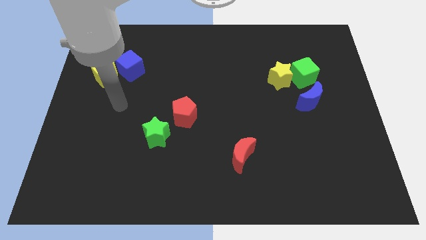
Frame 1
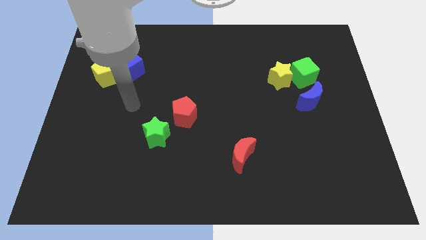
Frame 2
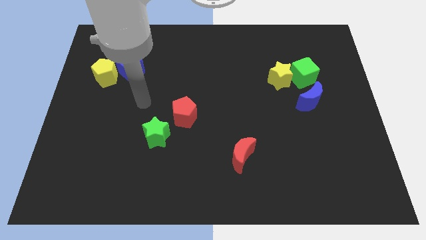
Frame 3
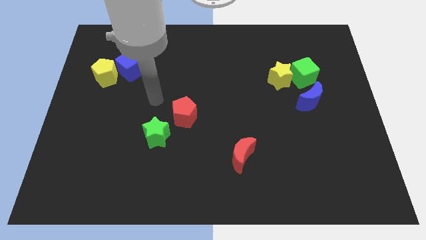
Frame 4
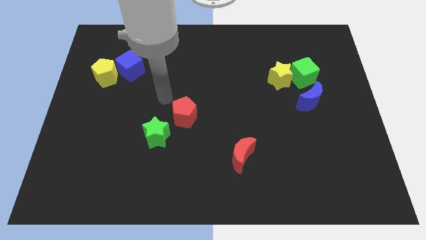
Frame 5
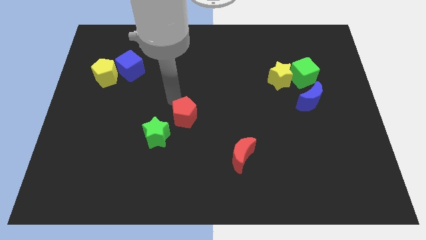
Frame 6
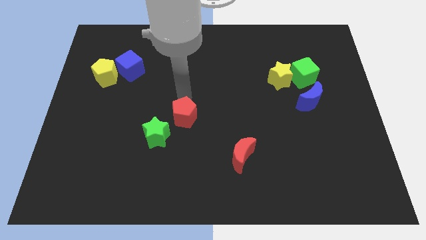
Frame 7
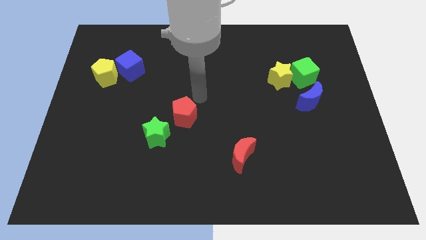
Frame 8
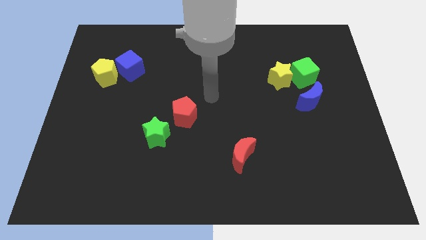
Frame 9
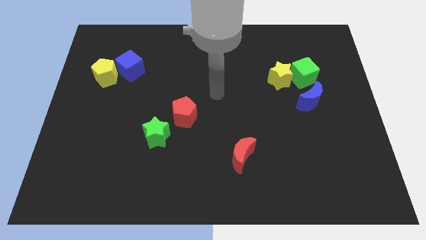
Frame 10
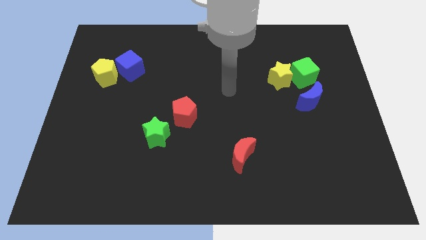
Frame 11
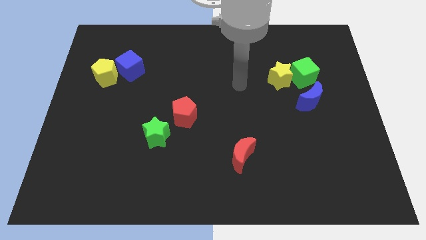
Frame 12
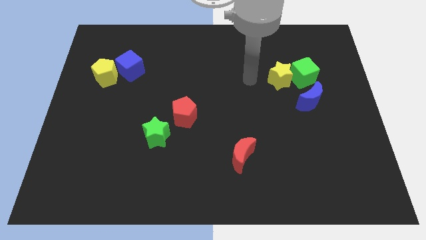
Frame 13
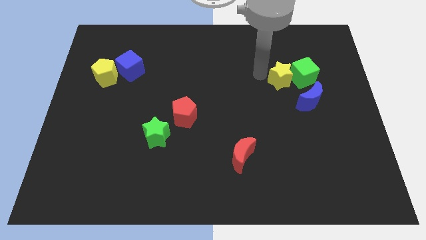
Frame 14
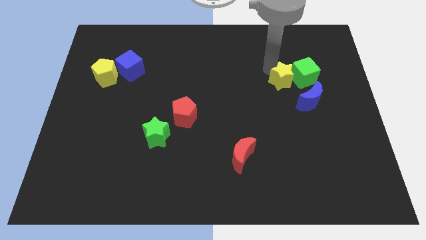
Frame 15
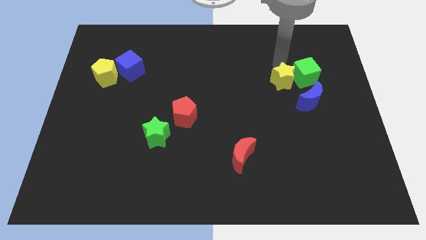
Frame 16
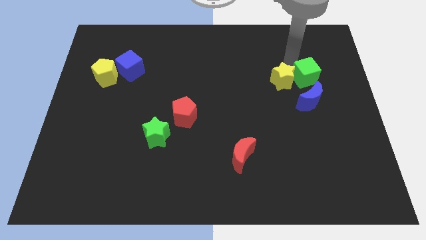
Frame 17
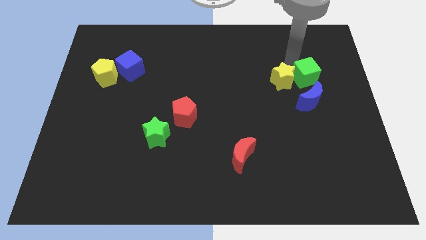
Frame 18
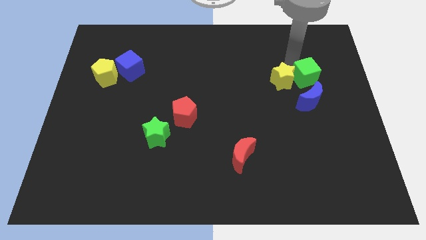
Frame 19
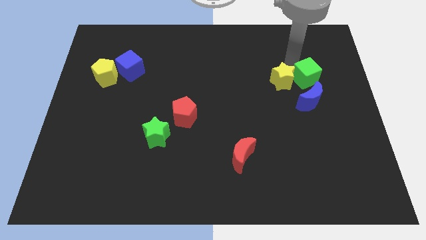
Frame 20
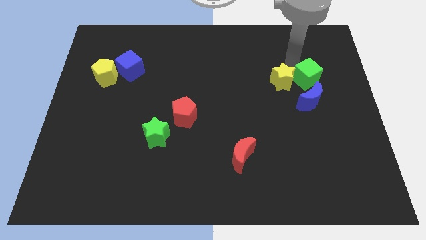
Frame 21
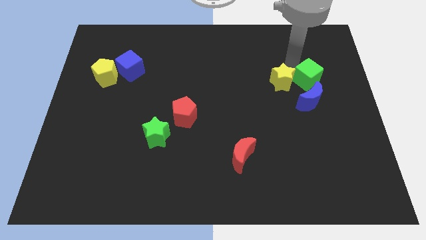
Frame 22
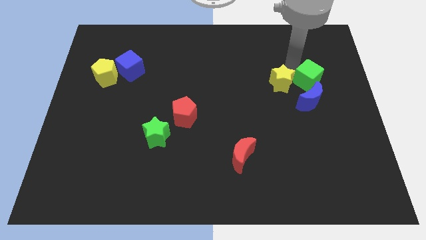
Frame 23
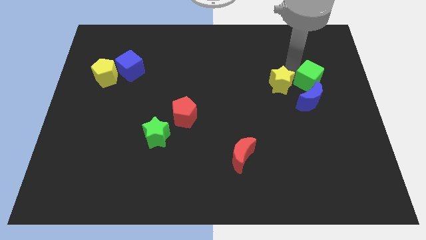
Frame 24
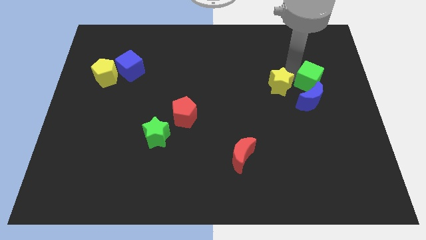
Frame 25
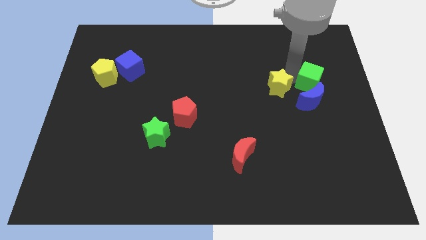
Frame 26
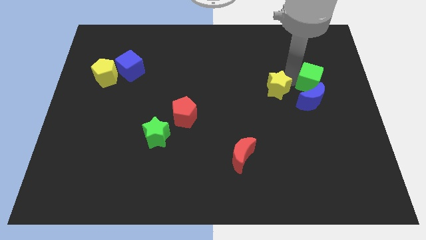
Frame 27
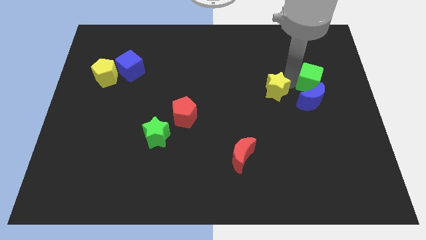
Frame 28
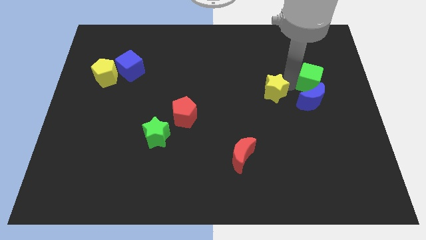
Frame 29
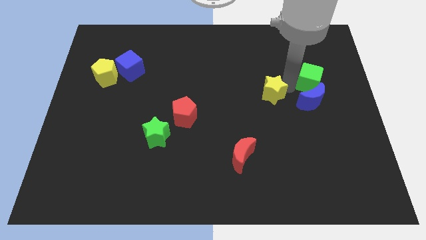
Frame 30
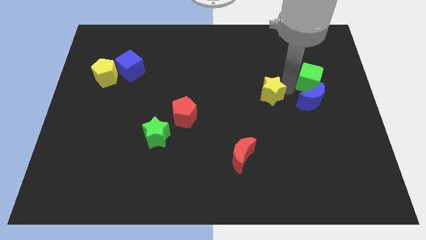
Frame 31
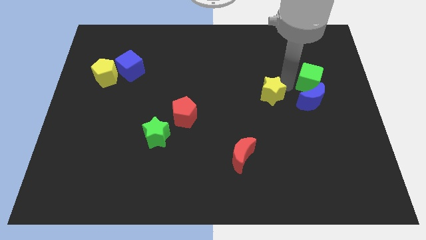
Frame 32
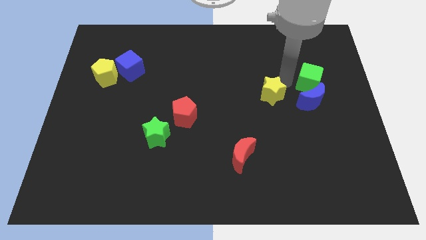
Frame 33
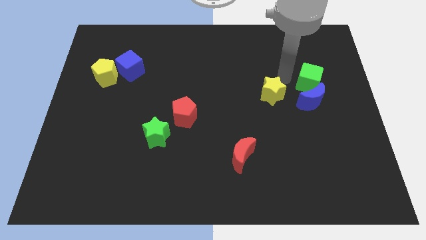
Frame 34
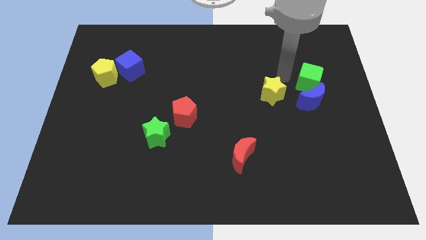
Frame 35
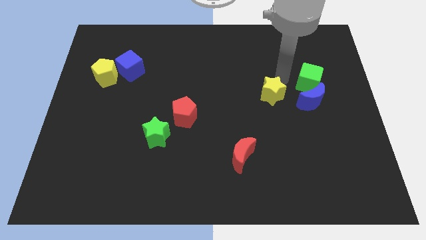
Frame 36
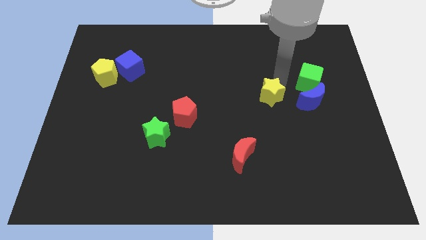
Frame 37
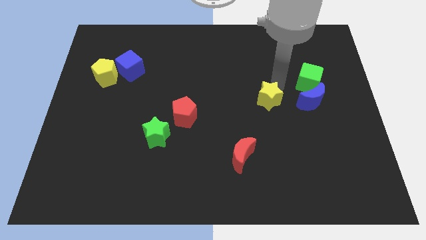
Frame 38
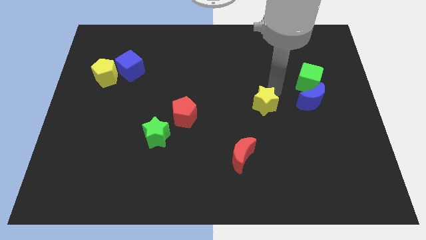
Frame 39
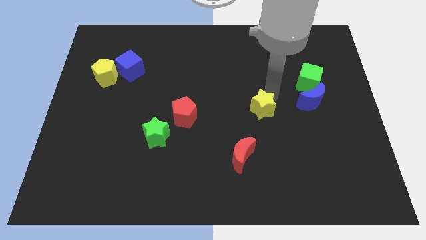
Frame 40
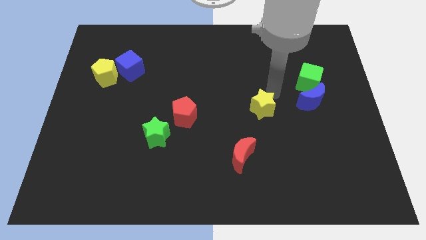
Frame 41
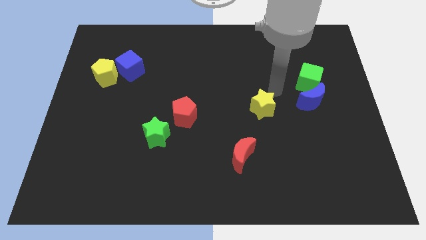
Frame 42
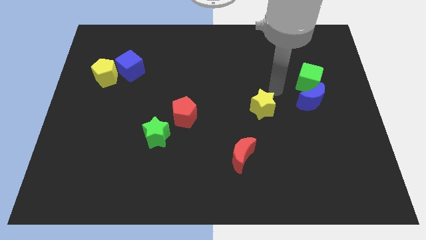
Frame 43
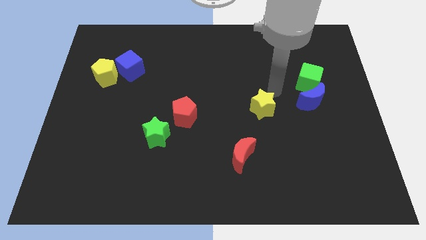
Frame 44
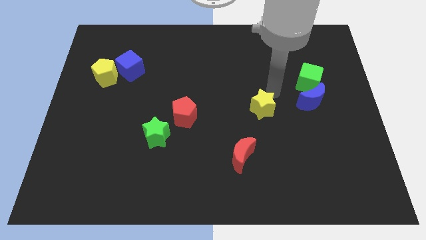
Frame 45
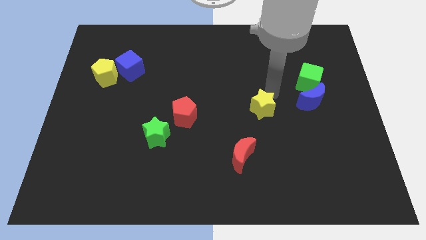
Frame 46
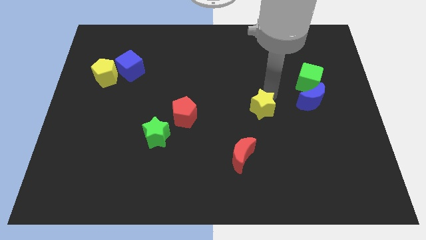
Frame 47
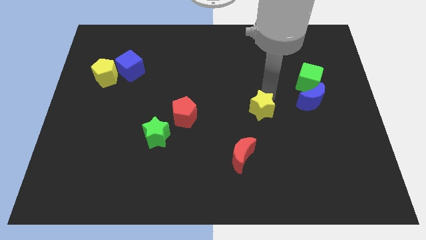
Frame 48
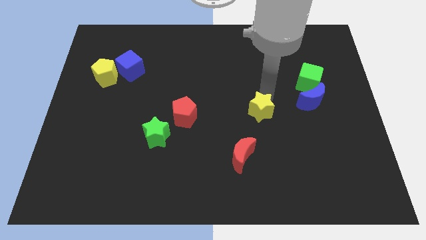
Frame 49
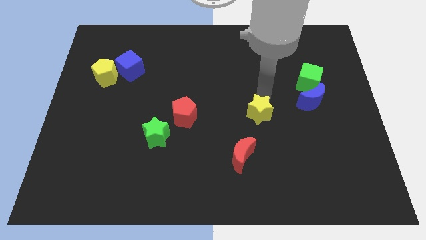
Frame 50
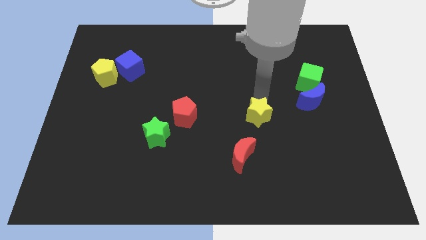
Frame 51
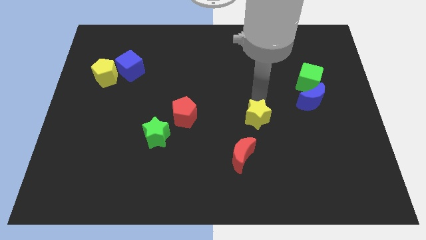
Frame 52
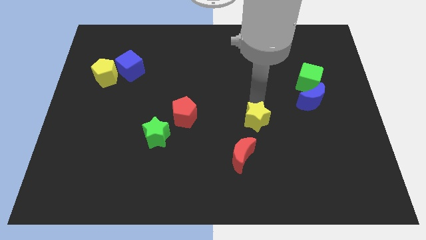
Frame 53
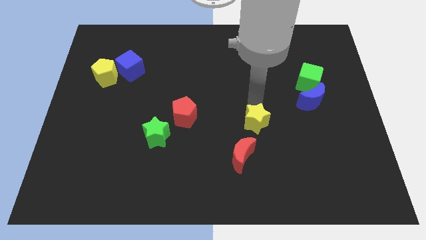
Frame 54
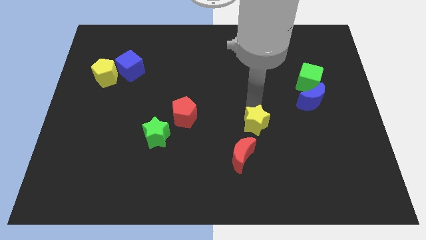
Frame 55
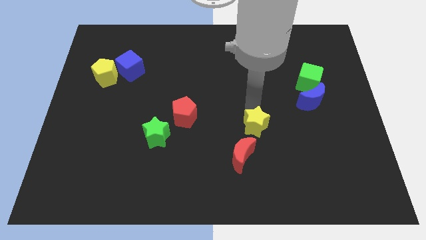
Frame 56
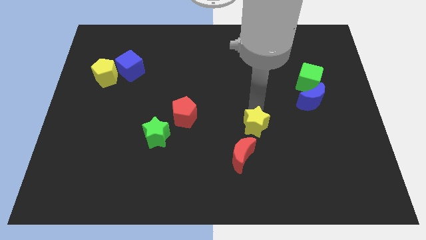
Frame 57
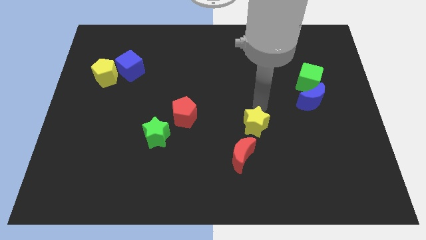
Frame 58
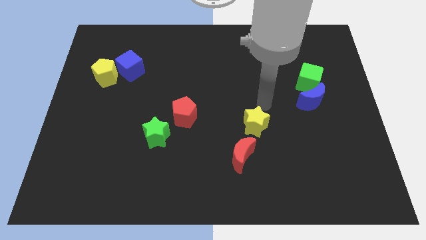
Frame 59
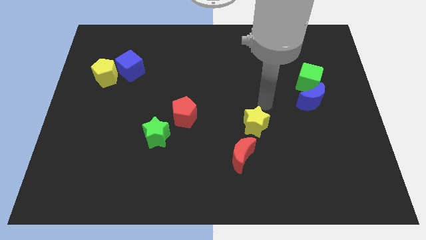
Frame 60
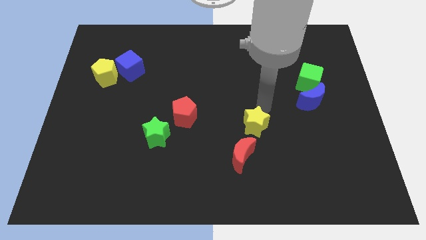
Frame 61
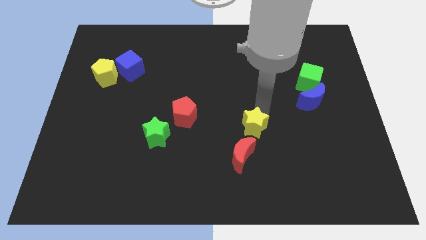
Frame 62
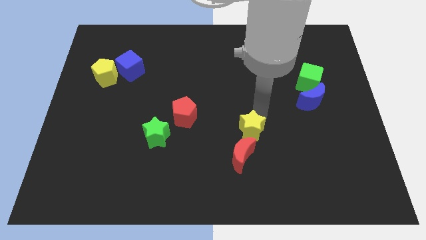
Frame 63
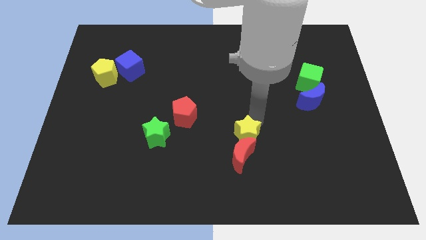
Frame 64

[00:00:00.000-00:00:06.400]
move the yellow star towards the red moon
